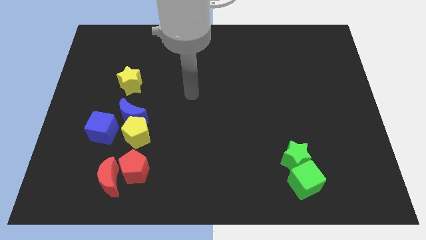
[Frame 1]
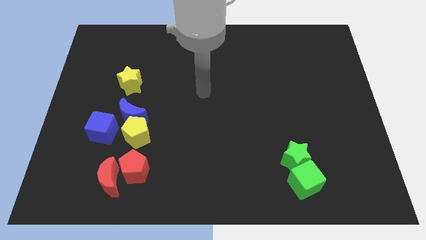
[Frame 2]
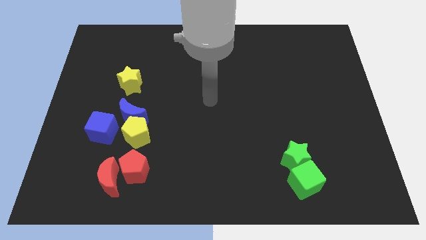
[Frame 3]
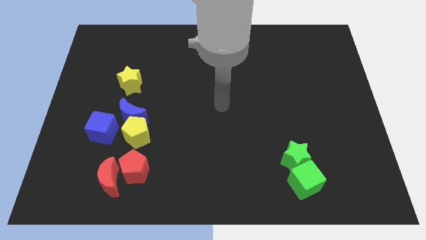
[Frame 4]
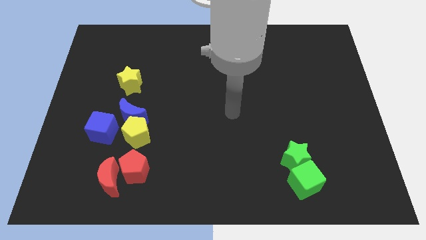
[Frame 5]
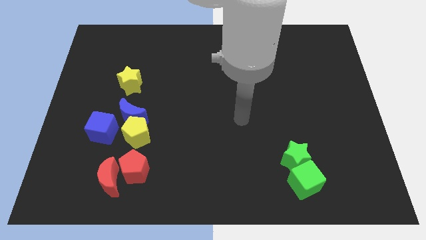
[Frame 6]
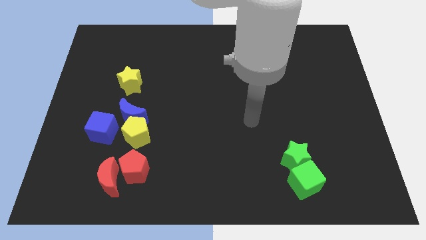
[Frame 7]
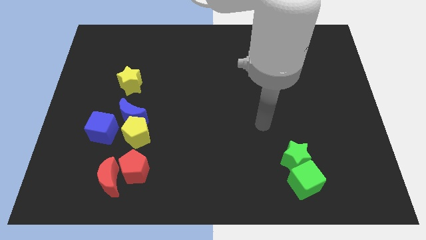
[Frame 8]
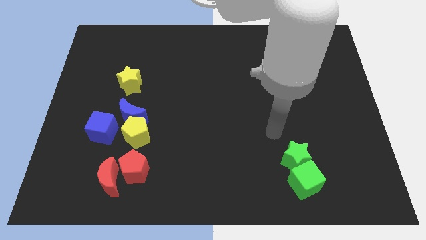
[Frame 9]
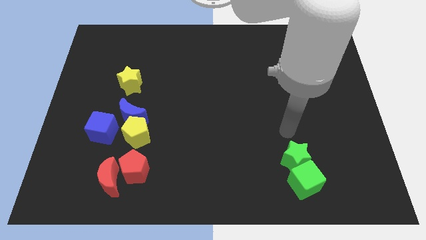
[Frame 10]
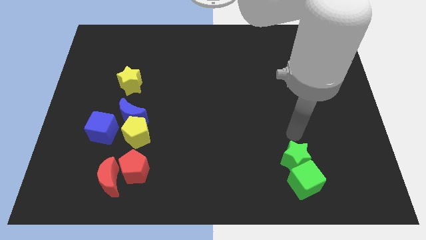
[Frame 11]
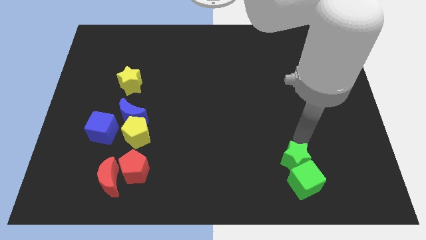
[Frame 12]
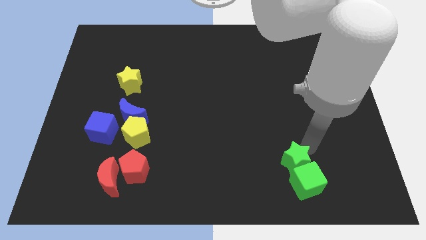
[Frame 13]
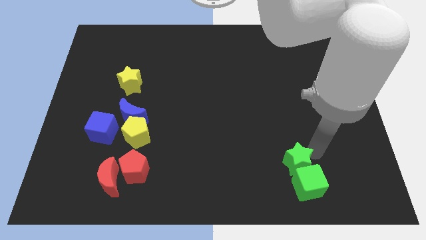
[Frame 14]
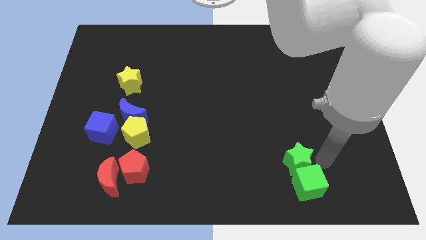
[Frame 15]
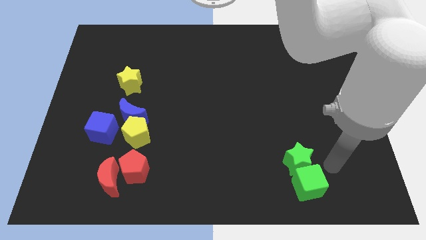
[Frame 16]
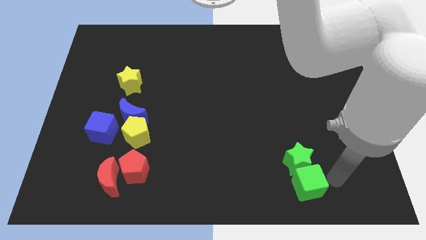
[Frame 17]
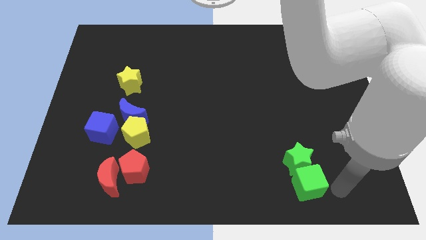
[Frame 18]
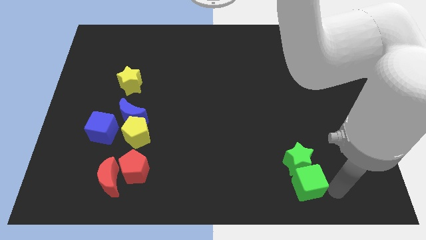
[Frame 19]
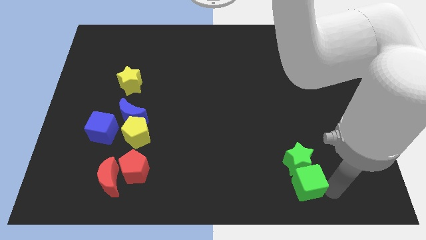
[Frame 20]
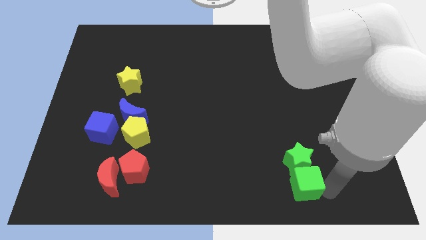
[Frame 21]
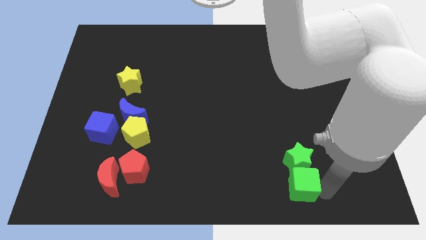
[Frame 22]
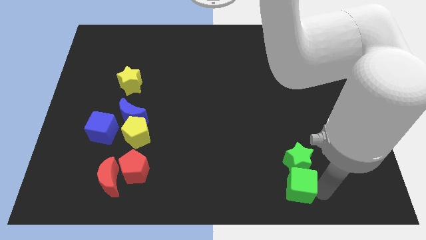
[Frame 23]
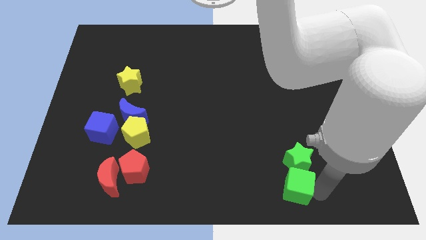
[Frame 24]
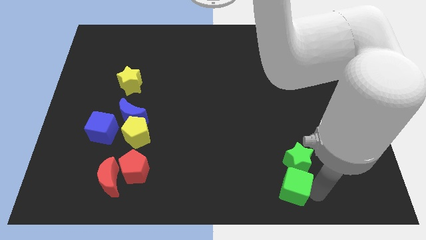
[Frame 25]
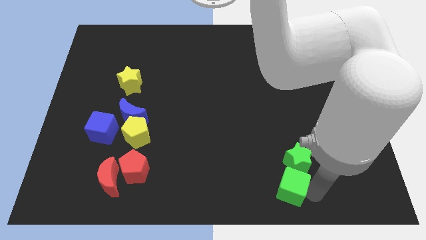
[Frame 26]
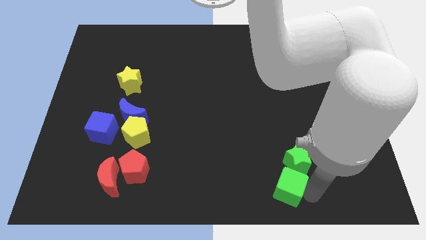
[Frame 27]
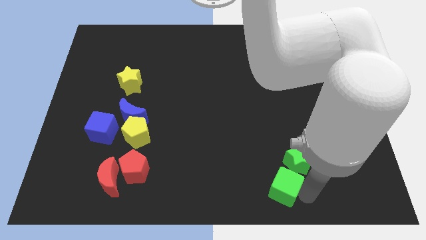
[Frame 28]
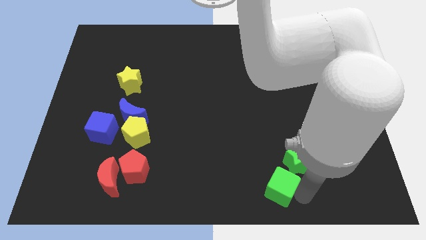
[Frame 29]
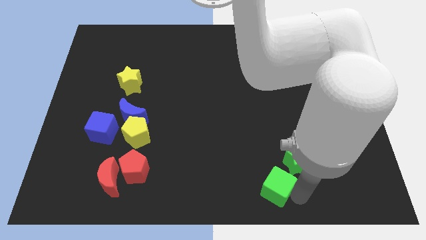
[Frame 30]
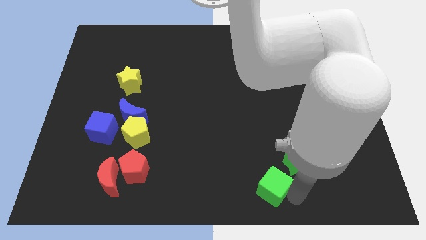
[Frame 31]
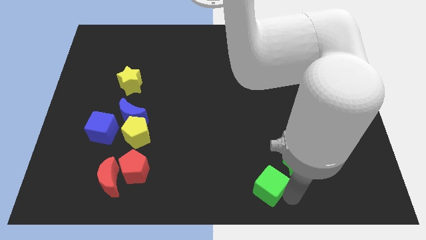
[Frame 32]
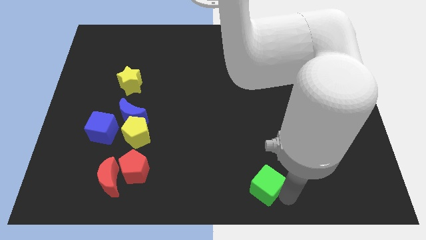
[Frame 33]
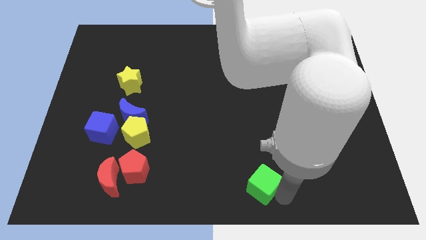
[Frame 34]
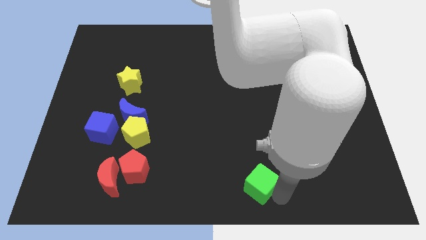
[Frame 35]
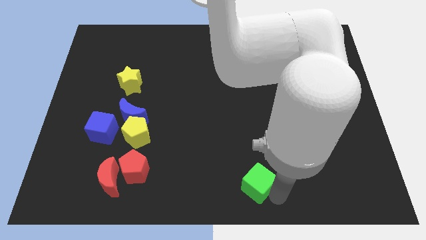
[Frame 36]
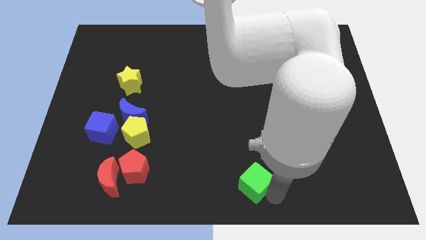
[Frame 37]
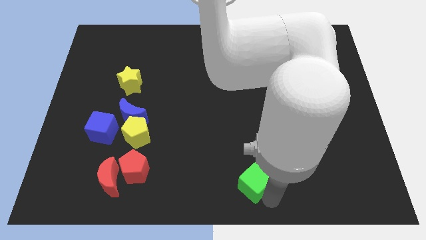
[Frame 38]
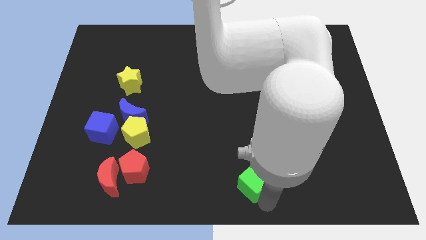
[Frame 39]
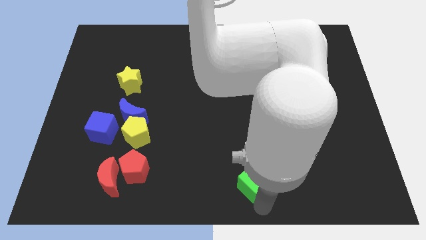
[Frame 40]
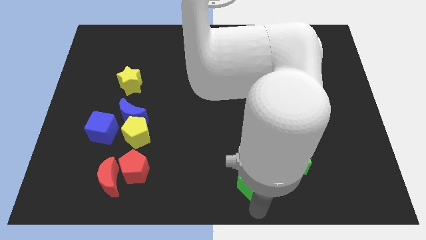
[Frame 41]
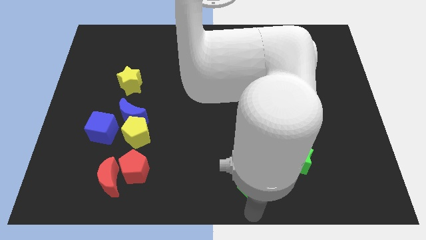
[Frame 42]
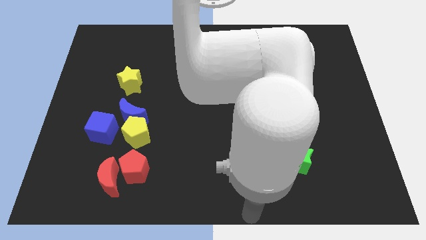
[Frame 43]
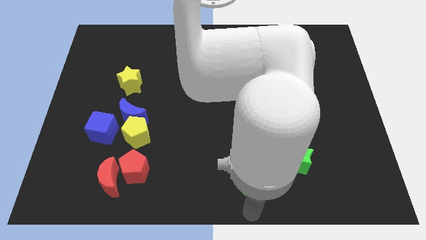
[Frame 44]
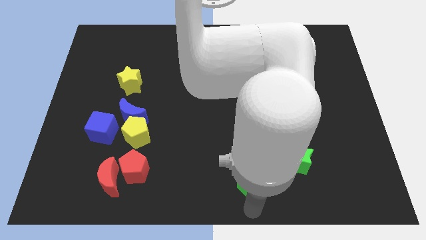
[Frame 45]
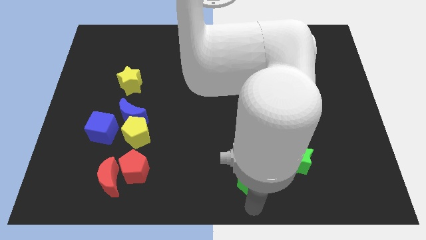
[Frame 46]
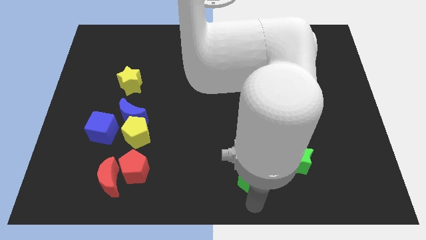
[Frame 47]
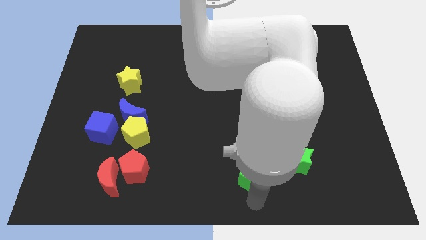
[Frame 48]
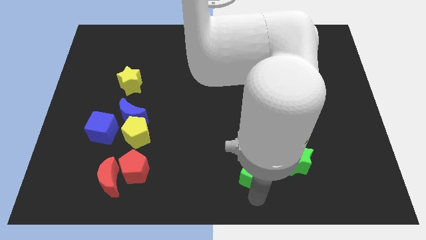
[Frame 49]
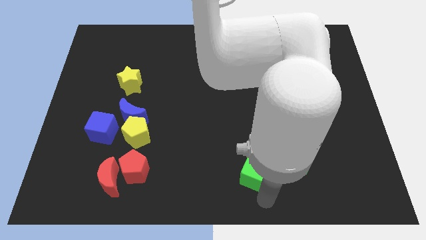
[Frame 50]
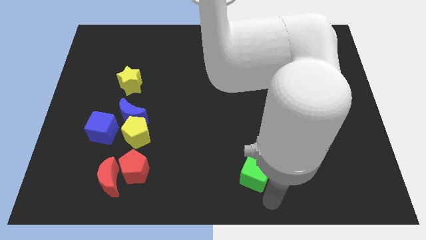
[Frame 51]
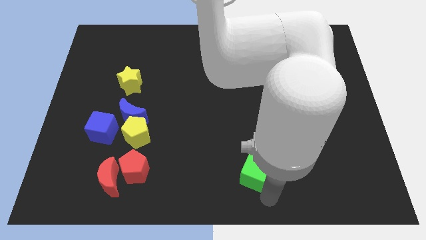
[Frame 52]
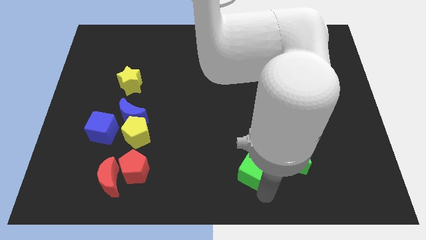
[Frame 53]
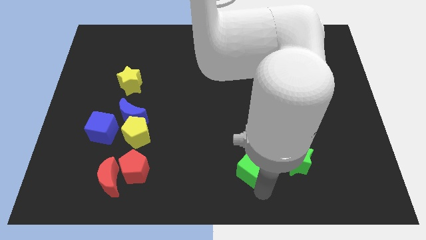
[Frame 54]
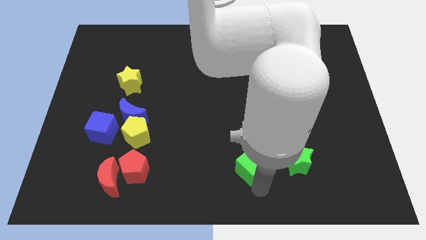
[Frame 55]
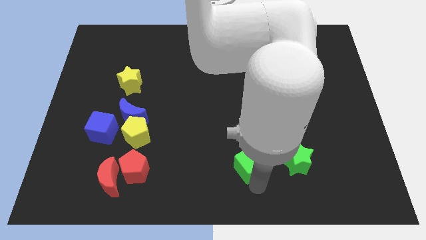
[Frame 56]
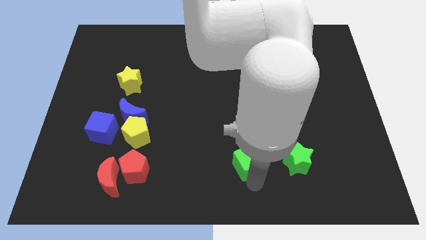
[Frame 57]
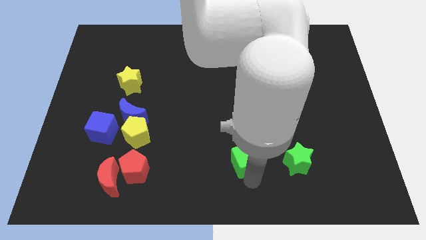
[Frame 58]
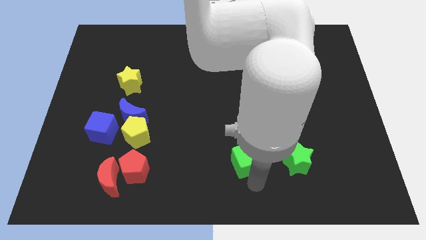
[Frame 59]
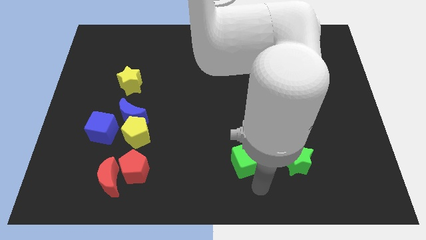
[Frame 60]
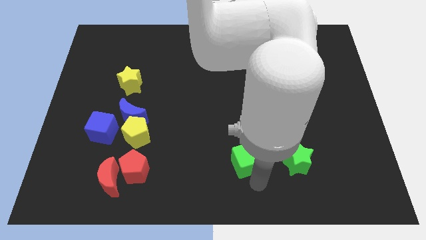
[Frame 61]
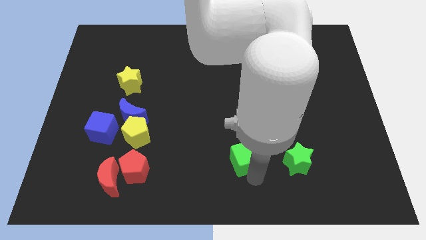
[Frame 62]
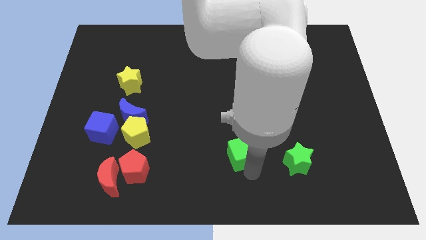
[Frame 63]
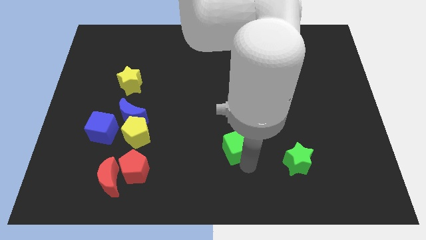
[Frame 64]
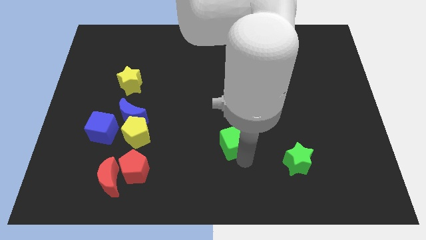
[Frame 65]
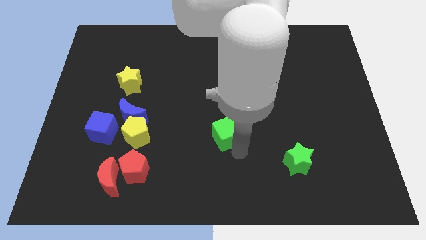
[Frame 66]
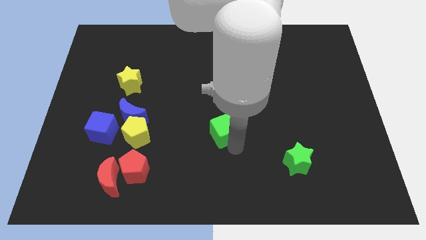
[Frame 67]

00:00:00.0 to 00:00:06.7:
push the green cube upwards and left

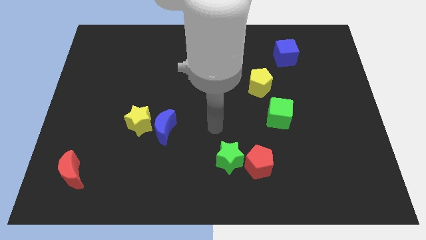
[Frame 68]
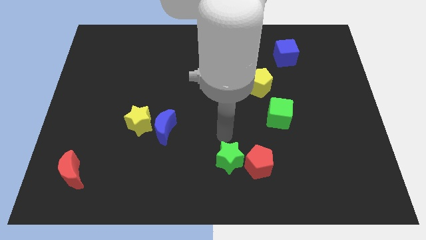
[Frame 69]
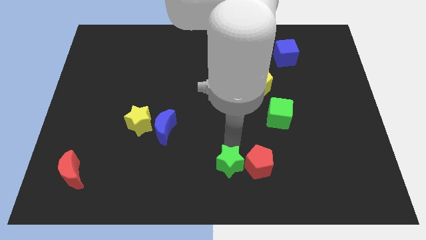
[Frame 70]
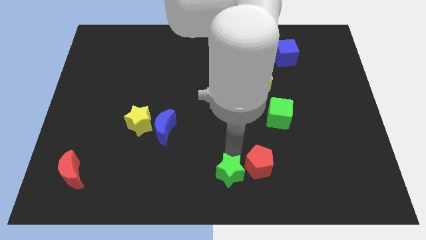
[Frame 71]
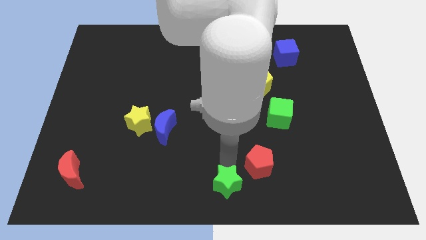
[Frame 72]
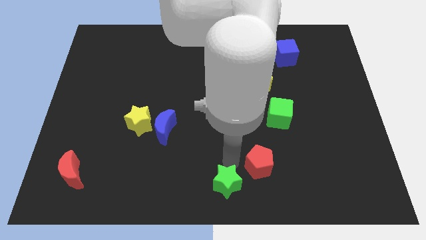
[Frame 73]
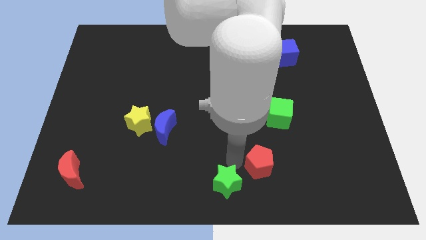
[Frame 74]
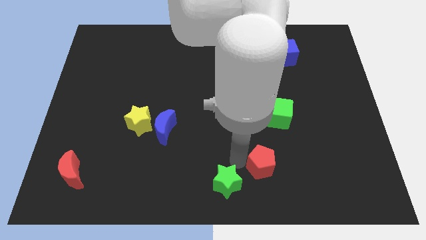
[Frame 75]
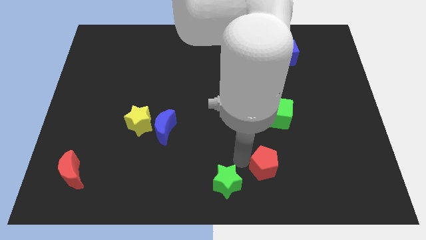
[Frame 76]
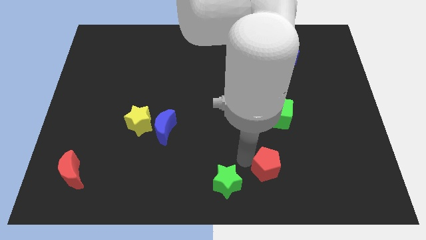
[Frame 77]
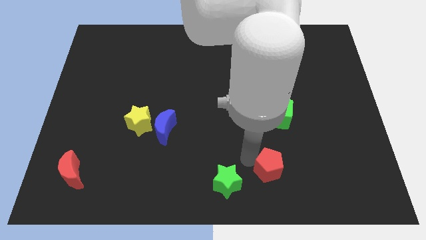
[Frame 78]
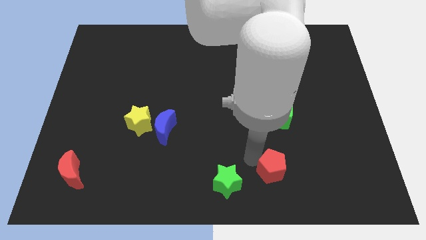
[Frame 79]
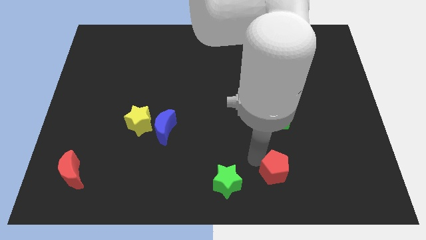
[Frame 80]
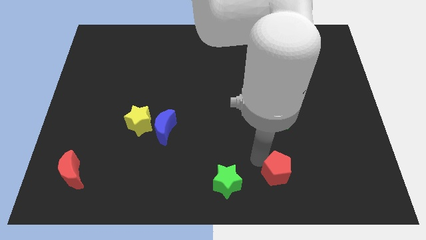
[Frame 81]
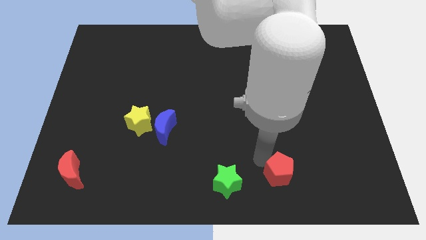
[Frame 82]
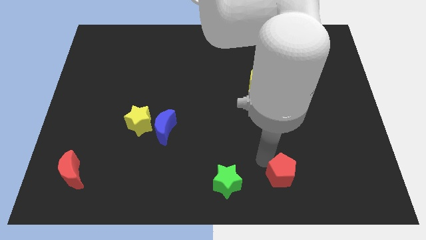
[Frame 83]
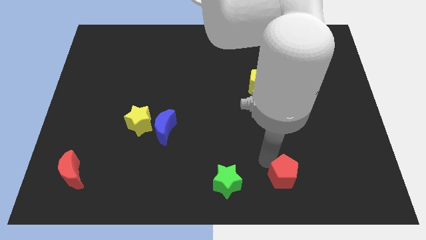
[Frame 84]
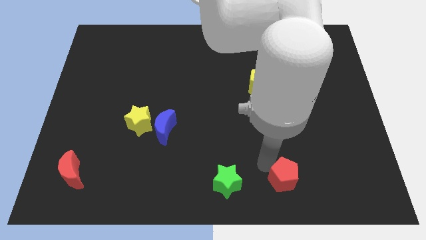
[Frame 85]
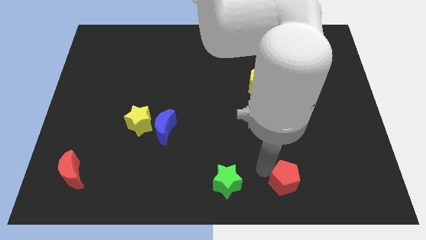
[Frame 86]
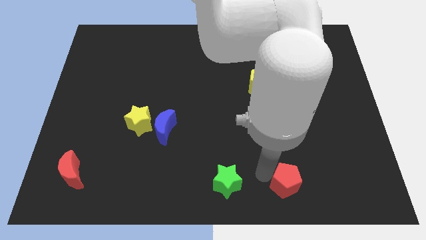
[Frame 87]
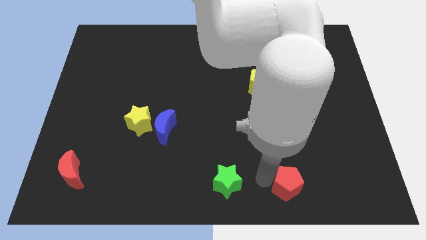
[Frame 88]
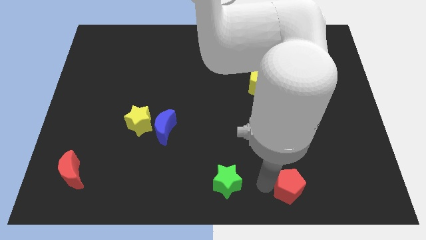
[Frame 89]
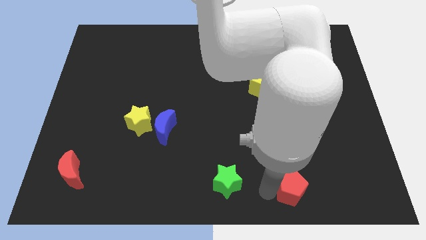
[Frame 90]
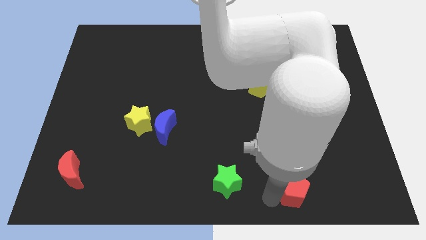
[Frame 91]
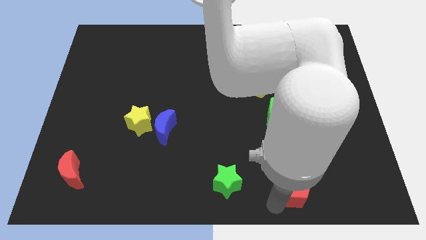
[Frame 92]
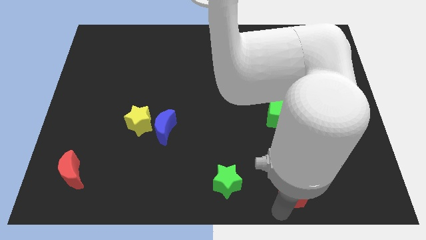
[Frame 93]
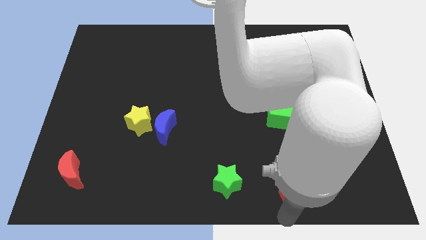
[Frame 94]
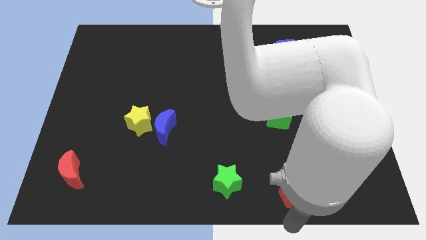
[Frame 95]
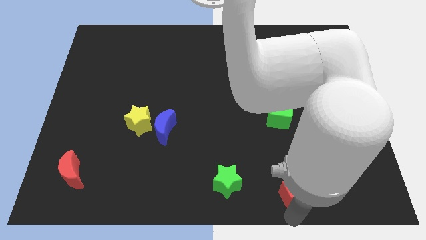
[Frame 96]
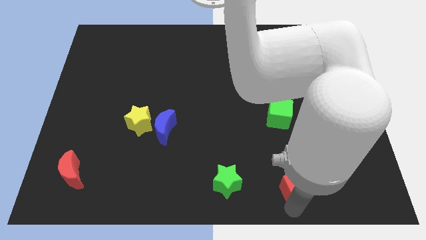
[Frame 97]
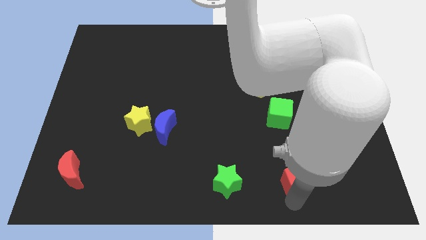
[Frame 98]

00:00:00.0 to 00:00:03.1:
push the red pentagon somewhat right
